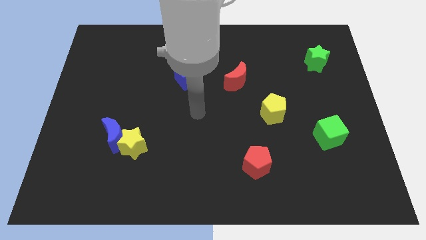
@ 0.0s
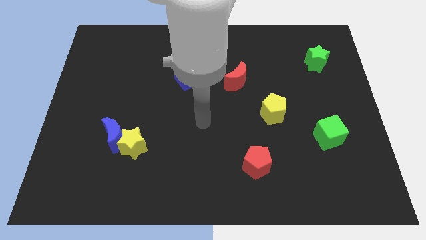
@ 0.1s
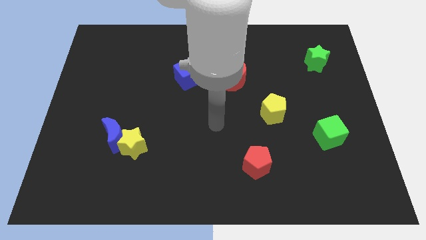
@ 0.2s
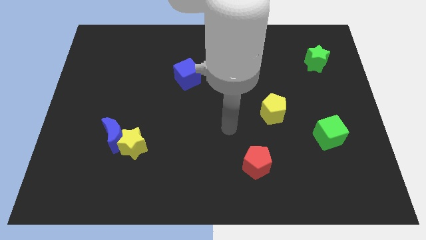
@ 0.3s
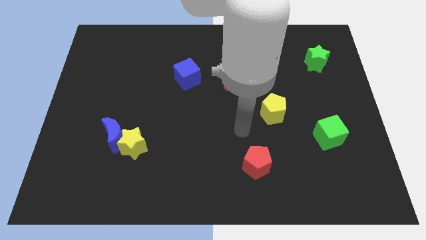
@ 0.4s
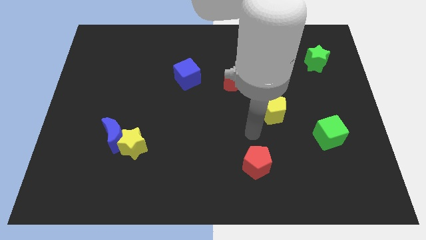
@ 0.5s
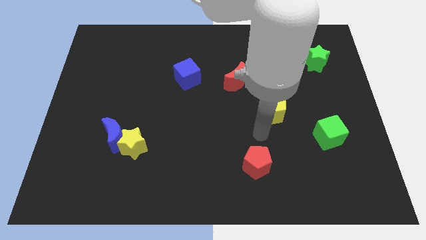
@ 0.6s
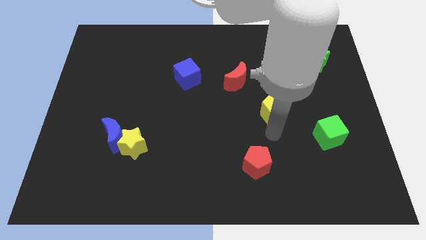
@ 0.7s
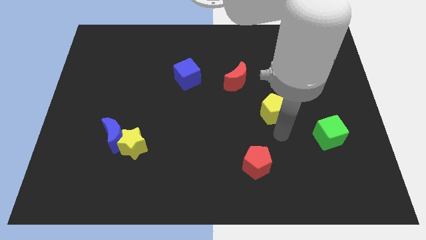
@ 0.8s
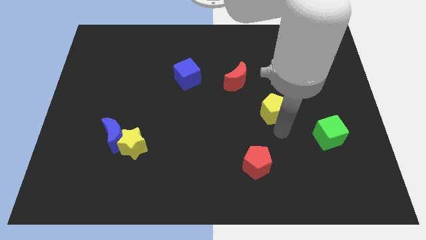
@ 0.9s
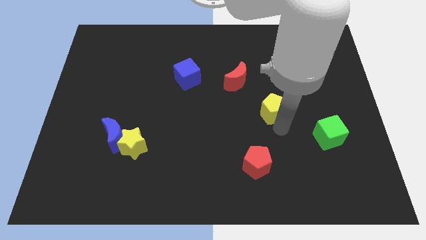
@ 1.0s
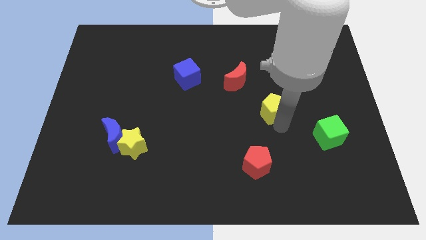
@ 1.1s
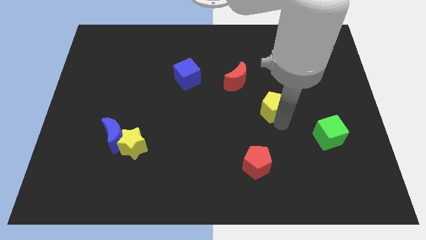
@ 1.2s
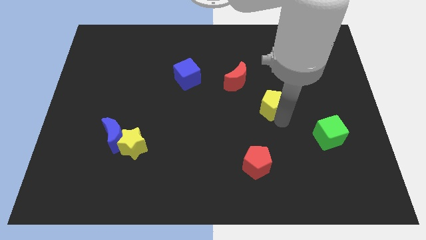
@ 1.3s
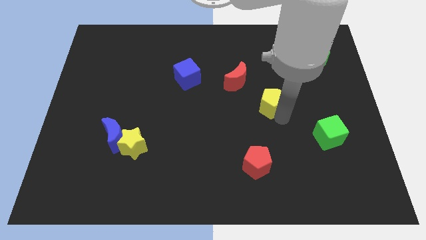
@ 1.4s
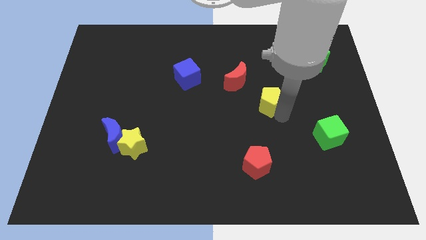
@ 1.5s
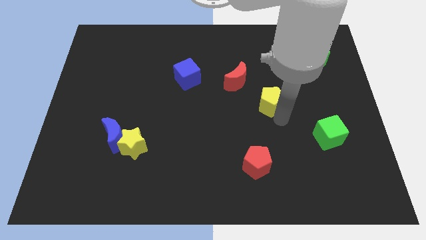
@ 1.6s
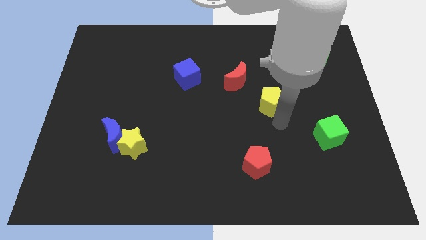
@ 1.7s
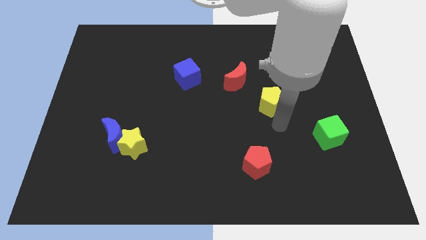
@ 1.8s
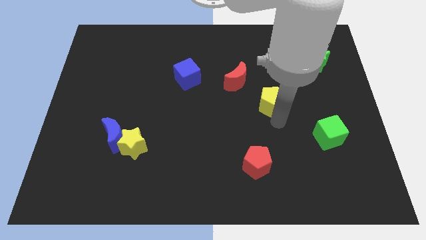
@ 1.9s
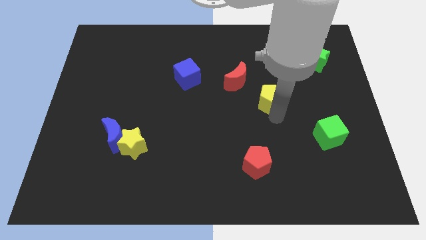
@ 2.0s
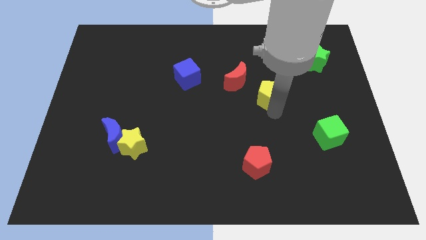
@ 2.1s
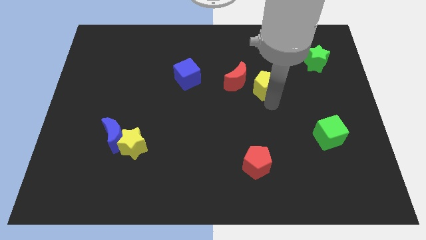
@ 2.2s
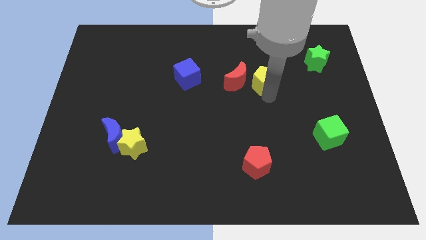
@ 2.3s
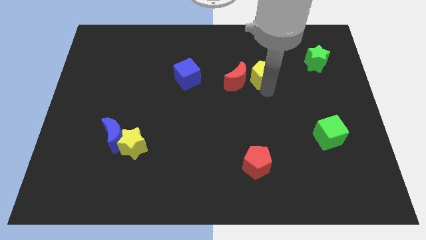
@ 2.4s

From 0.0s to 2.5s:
put the yellow pentagon to the top right side of the red moon

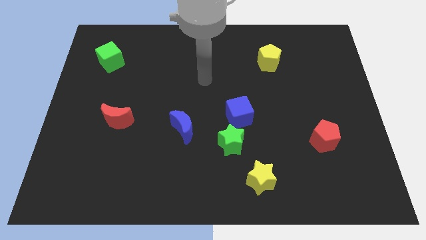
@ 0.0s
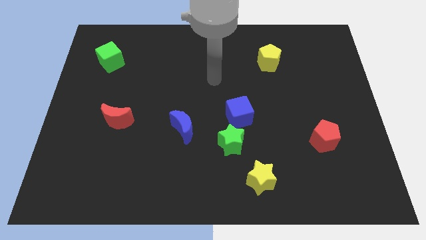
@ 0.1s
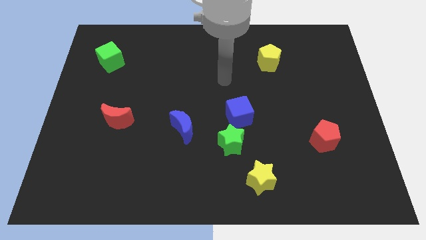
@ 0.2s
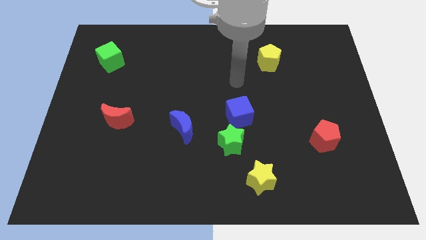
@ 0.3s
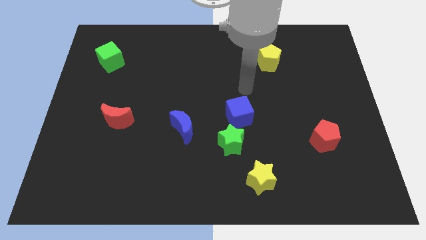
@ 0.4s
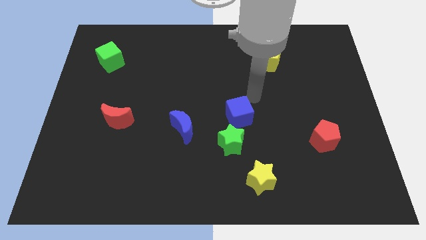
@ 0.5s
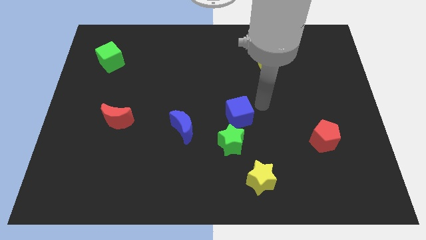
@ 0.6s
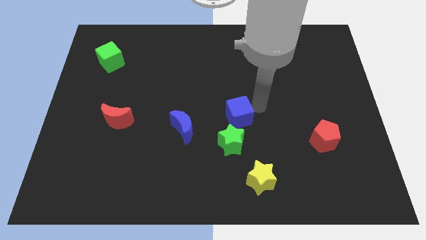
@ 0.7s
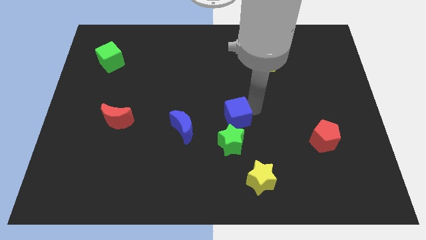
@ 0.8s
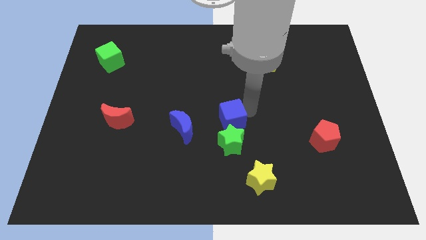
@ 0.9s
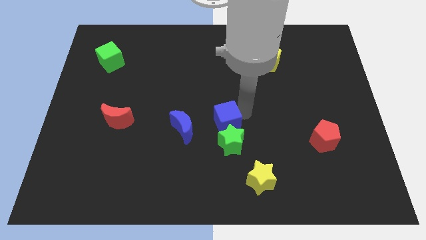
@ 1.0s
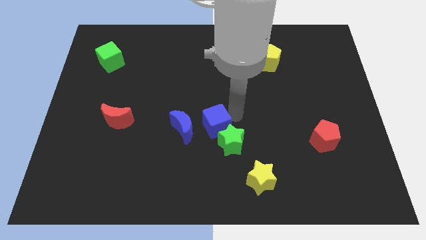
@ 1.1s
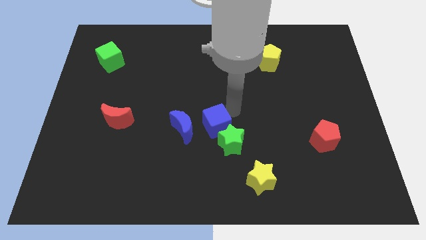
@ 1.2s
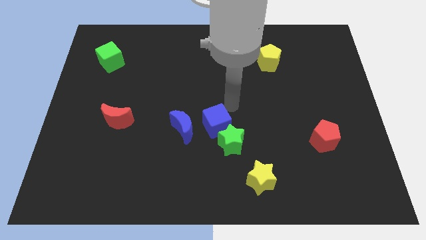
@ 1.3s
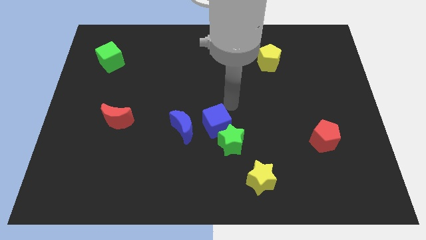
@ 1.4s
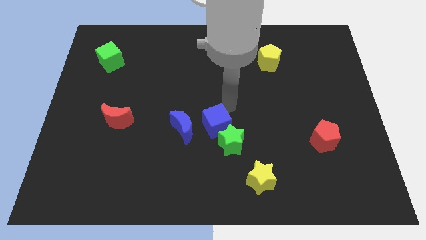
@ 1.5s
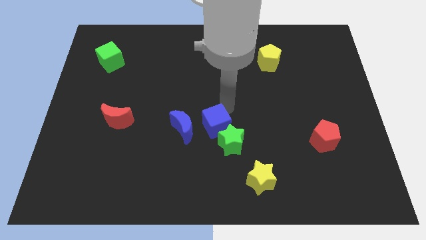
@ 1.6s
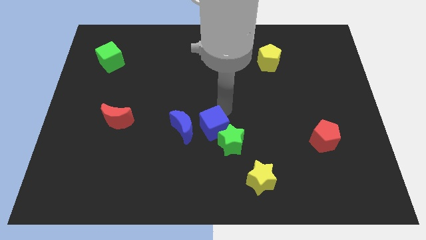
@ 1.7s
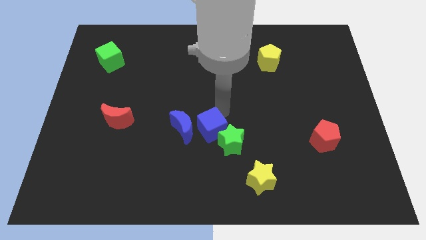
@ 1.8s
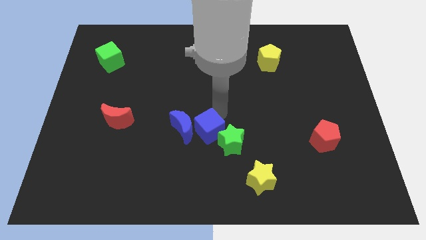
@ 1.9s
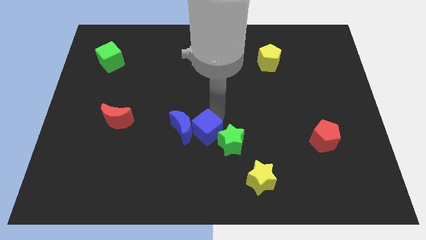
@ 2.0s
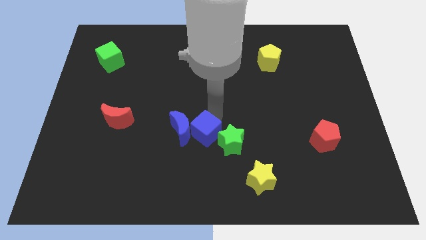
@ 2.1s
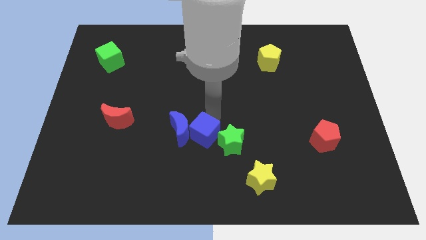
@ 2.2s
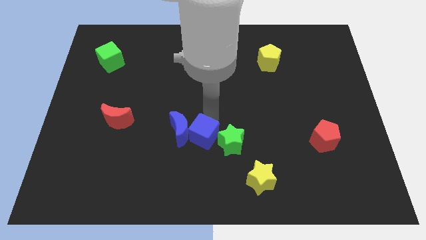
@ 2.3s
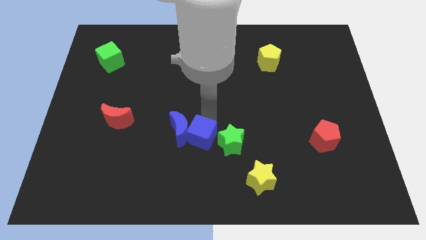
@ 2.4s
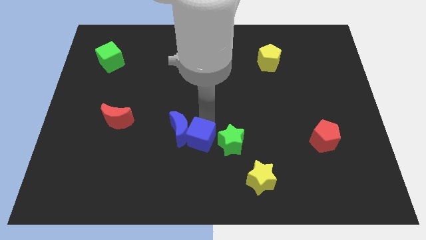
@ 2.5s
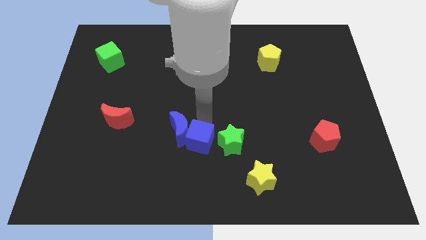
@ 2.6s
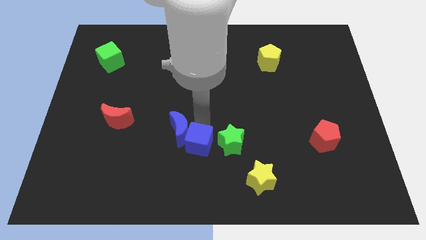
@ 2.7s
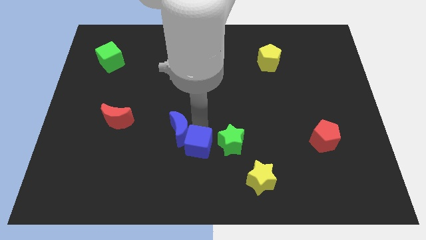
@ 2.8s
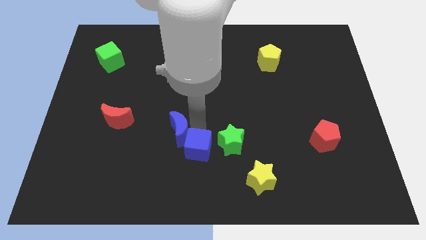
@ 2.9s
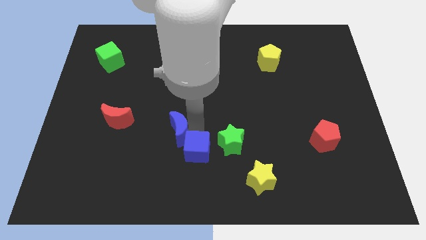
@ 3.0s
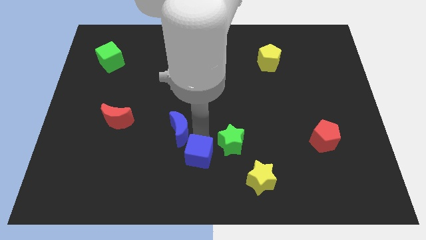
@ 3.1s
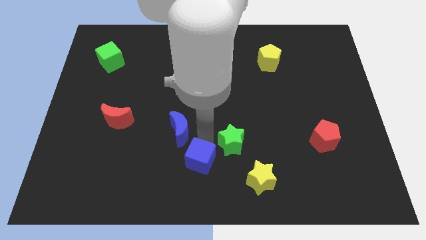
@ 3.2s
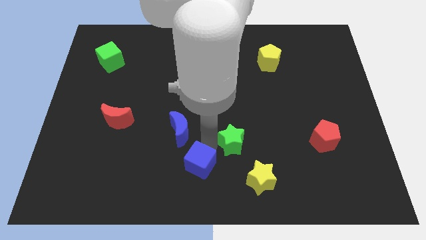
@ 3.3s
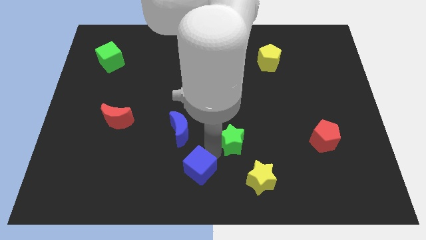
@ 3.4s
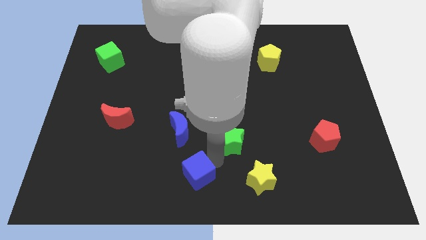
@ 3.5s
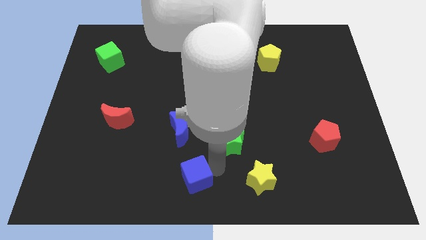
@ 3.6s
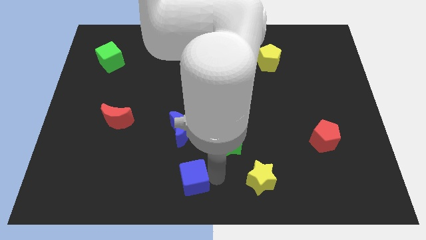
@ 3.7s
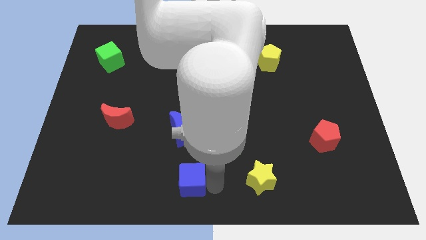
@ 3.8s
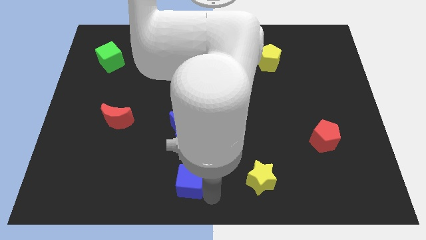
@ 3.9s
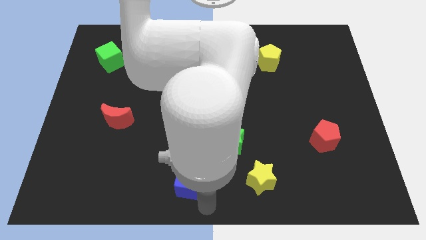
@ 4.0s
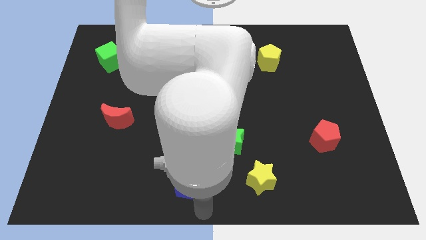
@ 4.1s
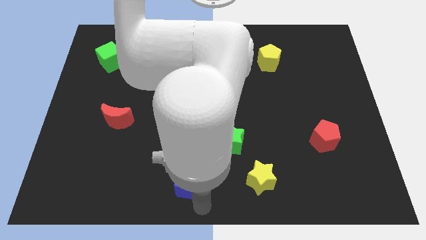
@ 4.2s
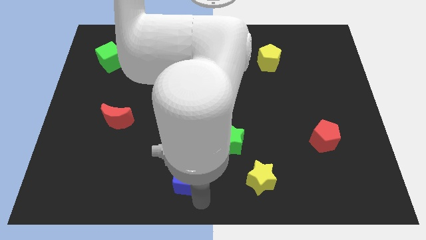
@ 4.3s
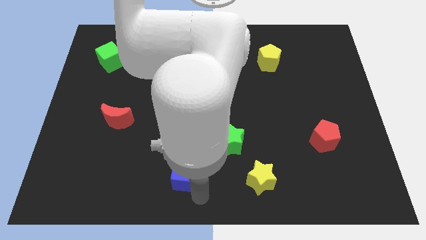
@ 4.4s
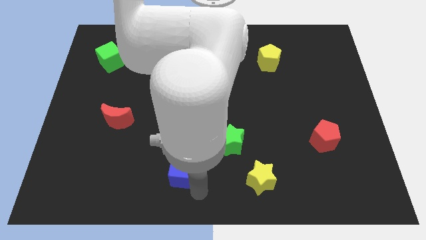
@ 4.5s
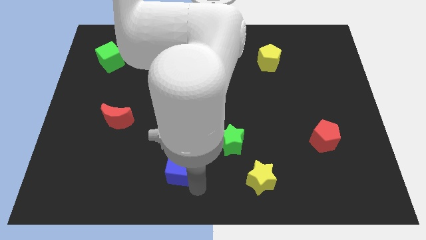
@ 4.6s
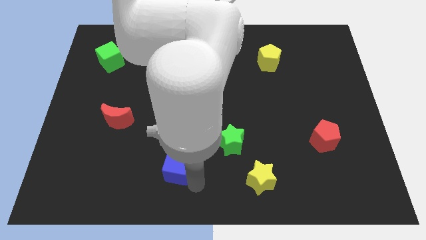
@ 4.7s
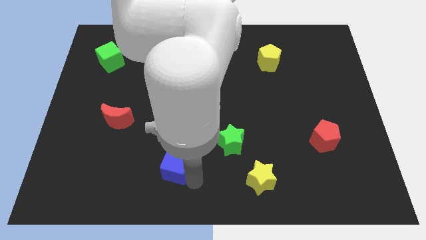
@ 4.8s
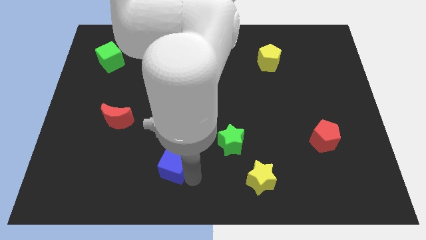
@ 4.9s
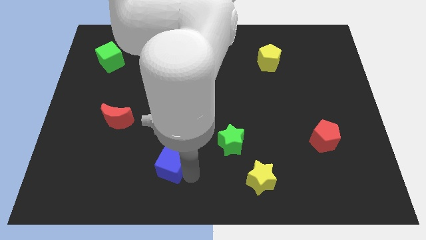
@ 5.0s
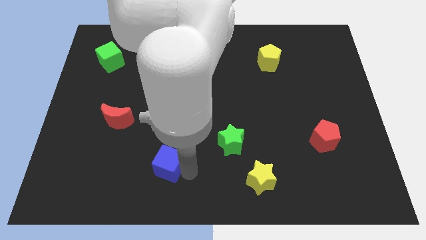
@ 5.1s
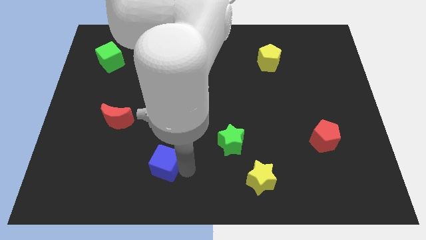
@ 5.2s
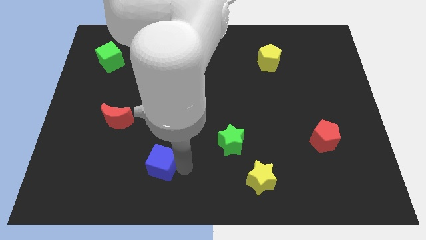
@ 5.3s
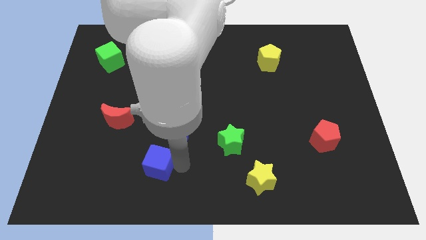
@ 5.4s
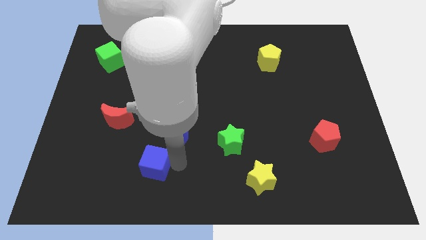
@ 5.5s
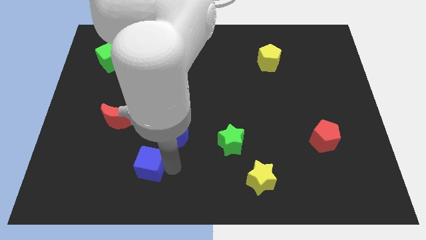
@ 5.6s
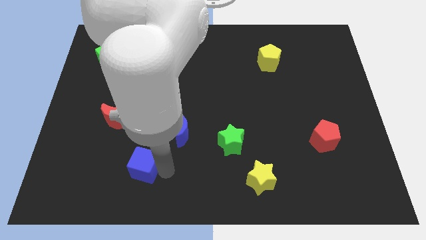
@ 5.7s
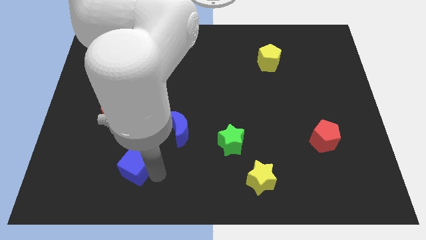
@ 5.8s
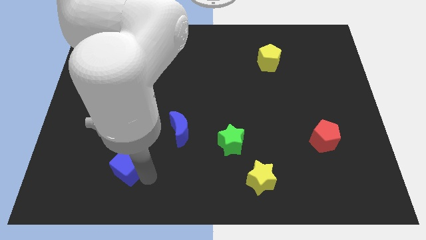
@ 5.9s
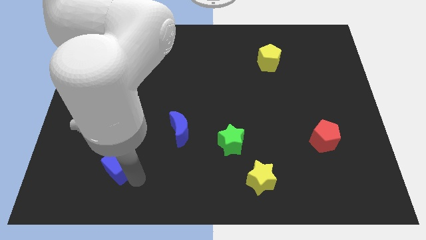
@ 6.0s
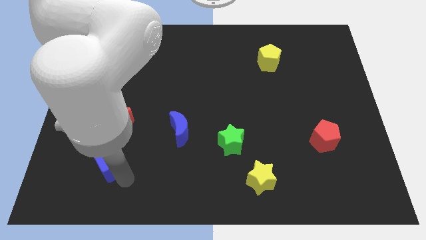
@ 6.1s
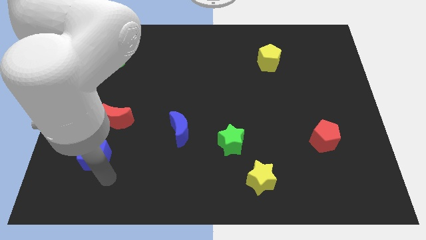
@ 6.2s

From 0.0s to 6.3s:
slide the blue cube to the bottom left side of the red moon
